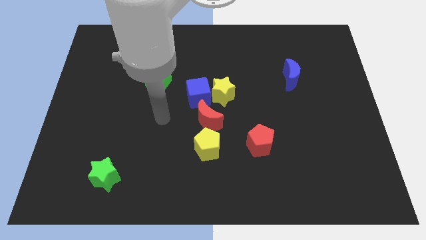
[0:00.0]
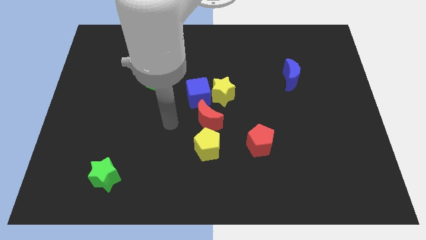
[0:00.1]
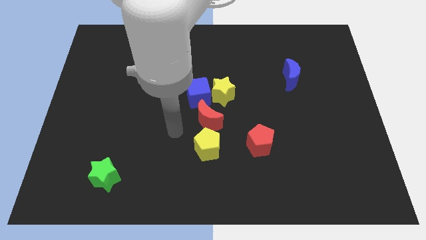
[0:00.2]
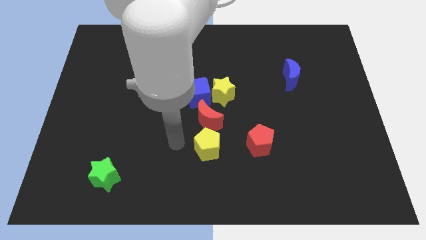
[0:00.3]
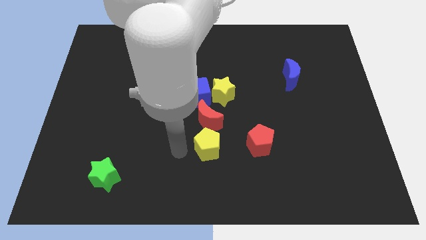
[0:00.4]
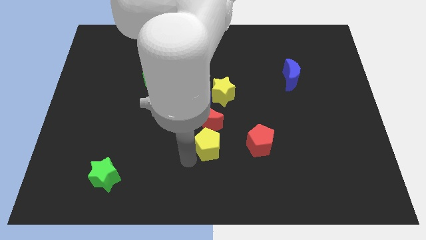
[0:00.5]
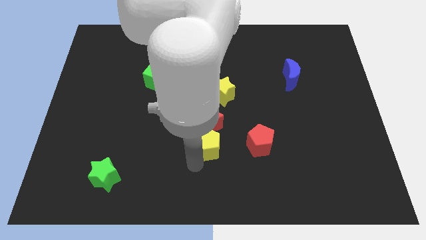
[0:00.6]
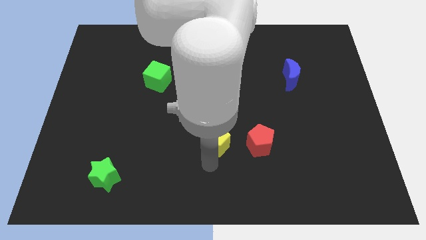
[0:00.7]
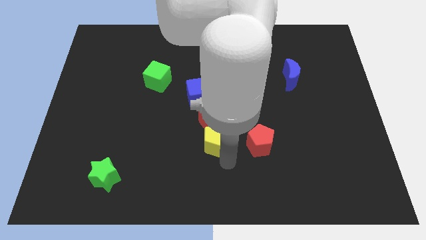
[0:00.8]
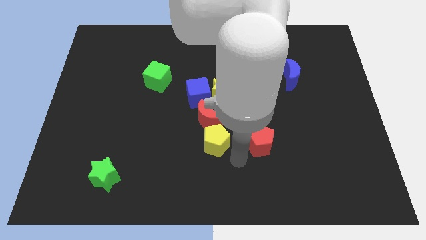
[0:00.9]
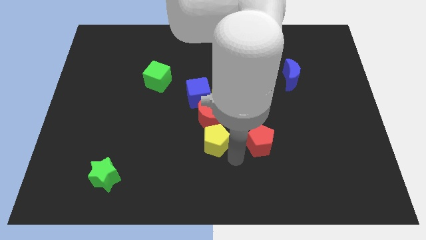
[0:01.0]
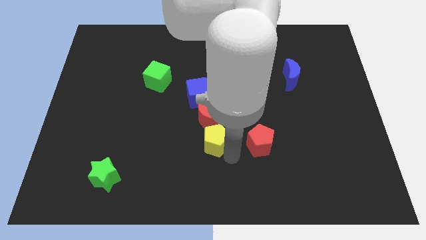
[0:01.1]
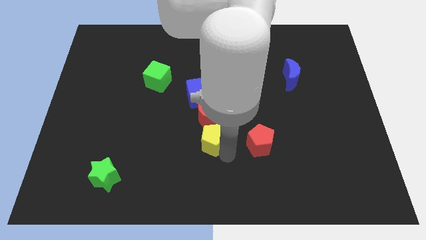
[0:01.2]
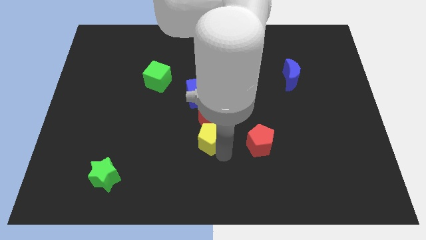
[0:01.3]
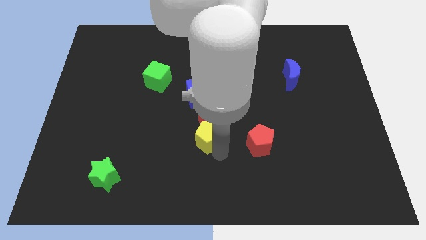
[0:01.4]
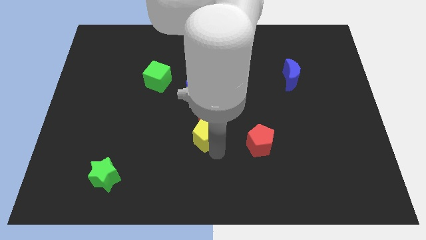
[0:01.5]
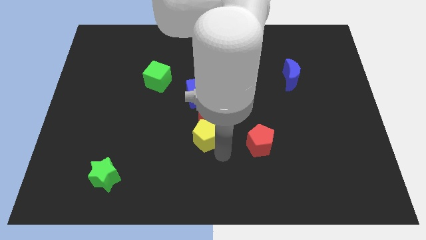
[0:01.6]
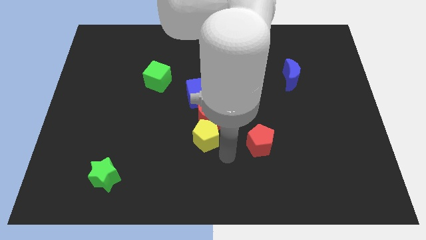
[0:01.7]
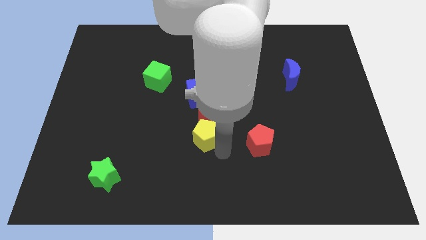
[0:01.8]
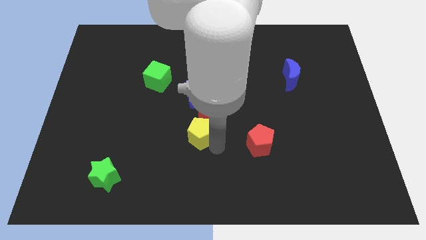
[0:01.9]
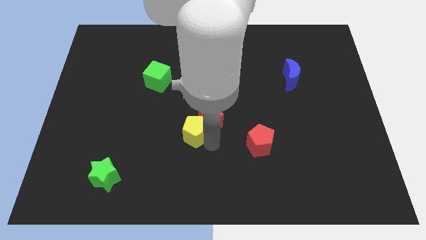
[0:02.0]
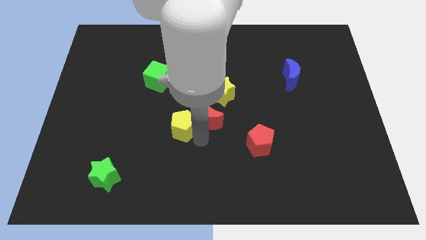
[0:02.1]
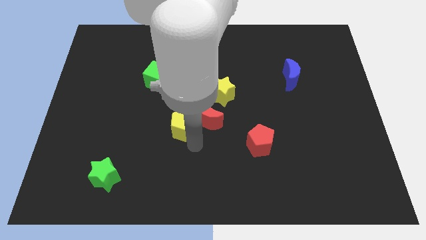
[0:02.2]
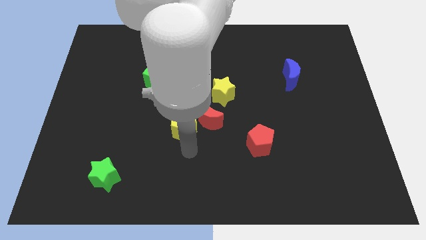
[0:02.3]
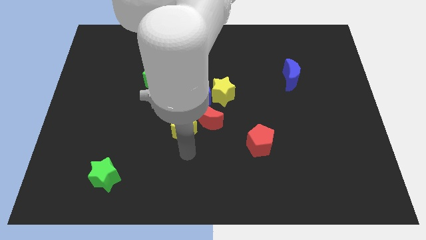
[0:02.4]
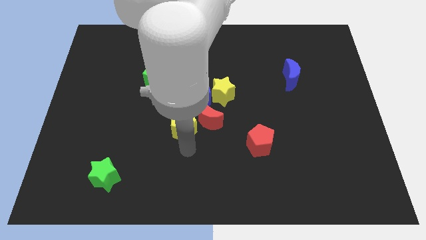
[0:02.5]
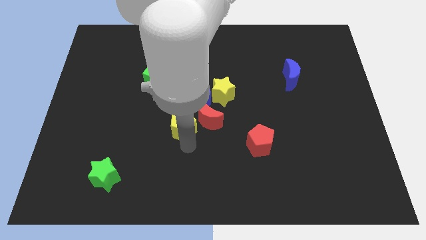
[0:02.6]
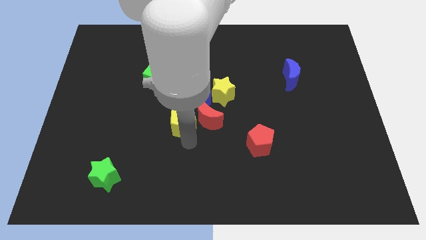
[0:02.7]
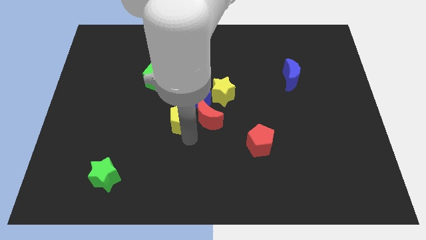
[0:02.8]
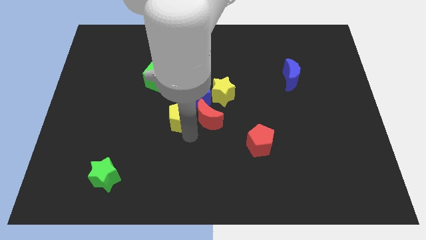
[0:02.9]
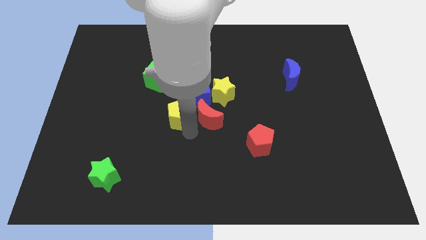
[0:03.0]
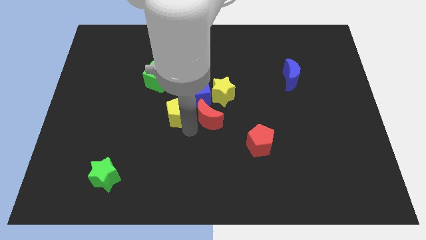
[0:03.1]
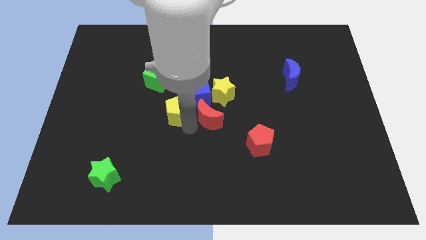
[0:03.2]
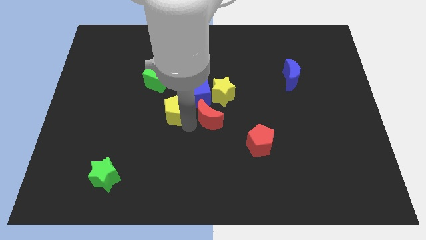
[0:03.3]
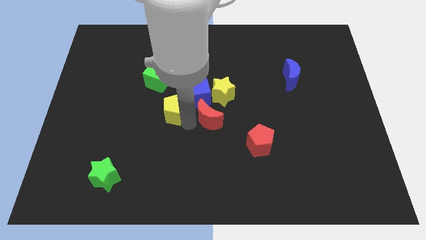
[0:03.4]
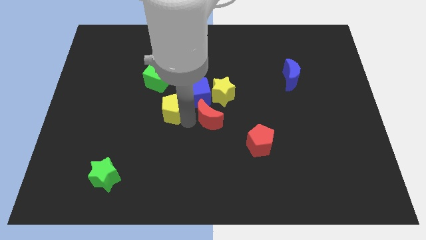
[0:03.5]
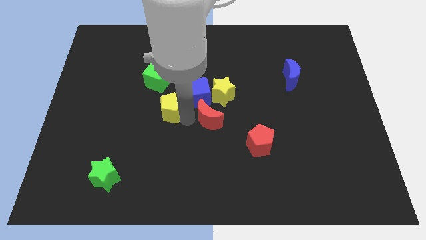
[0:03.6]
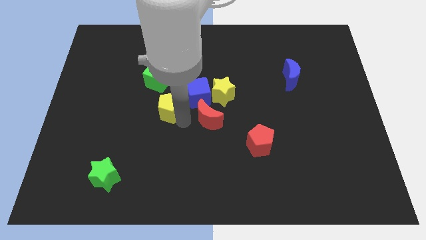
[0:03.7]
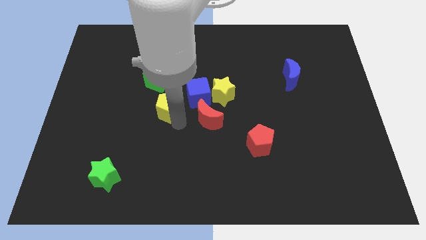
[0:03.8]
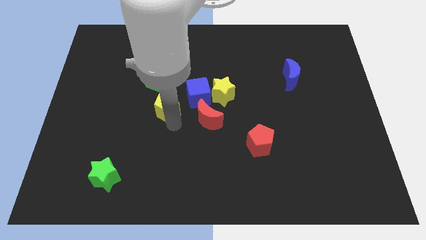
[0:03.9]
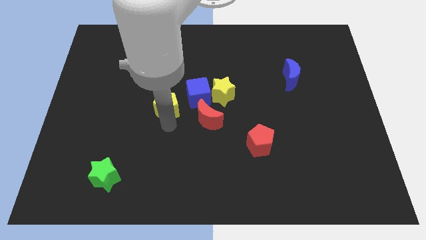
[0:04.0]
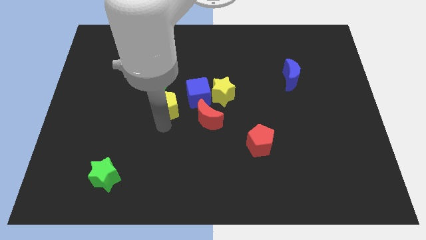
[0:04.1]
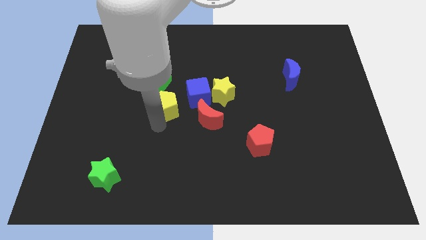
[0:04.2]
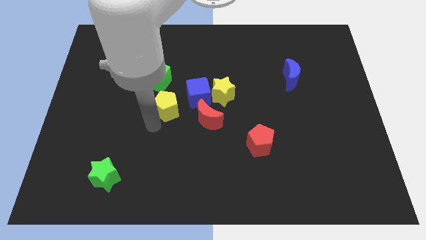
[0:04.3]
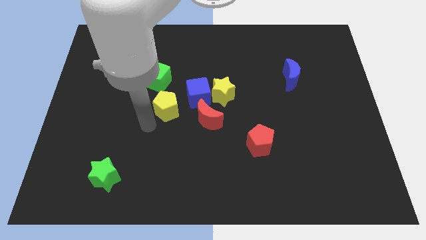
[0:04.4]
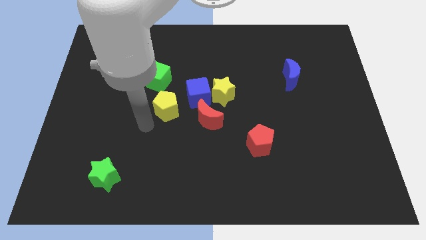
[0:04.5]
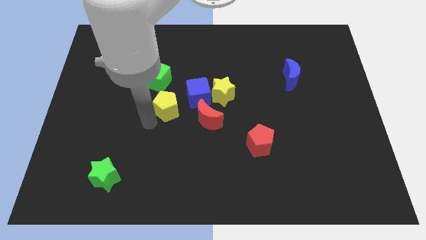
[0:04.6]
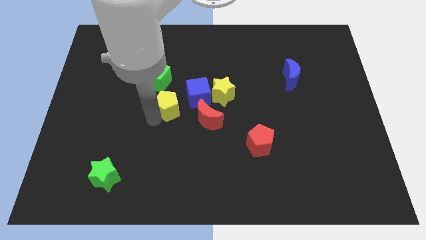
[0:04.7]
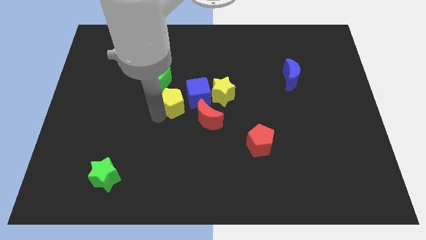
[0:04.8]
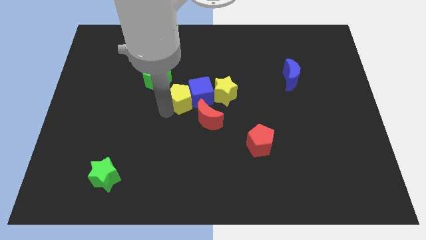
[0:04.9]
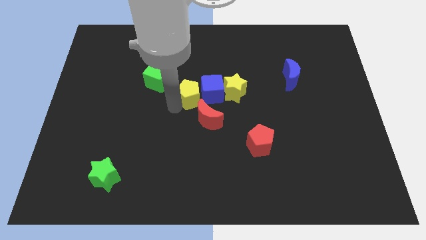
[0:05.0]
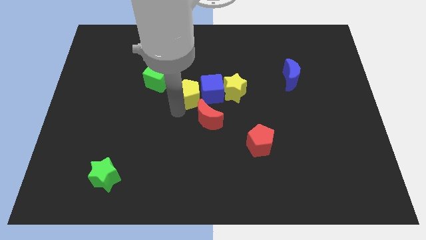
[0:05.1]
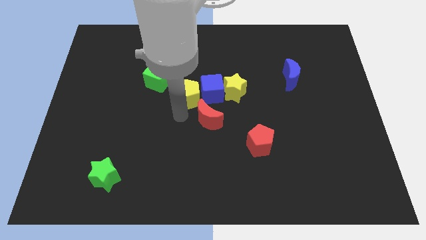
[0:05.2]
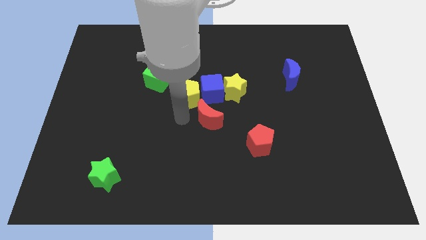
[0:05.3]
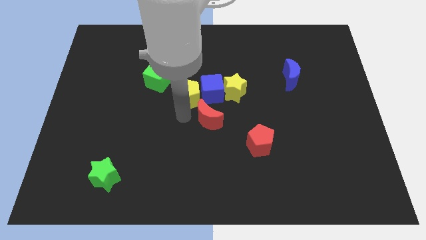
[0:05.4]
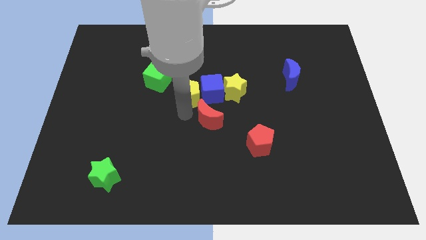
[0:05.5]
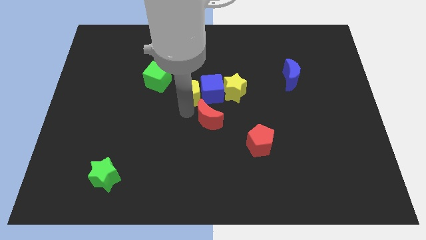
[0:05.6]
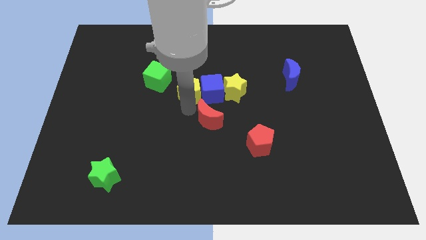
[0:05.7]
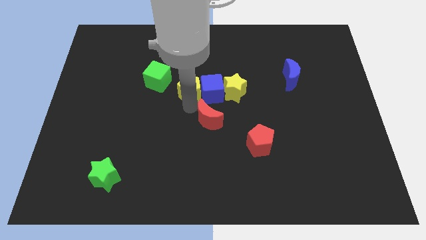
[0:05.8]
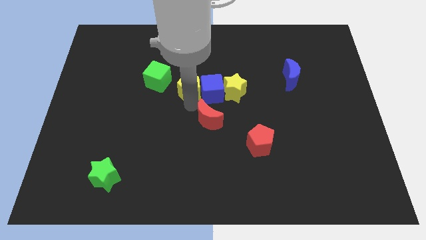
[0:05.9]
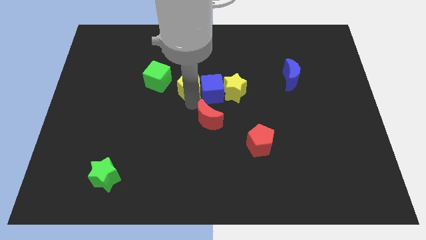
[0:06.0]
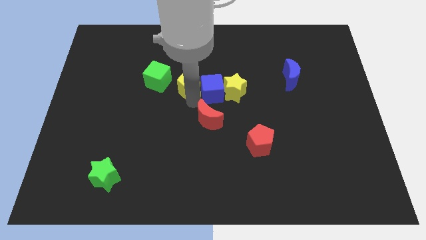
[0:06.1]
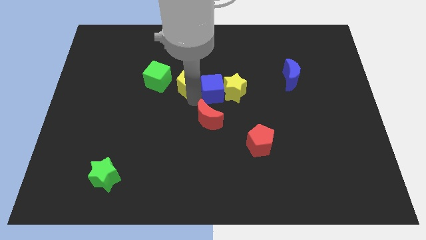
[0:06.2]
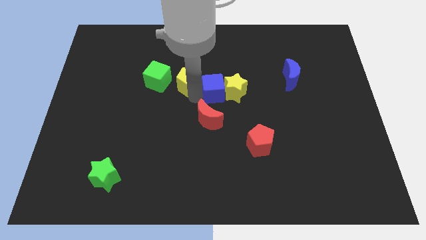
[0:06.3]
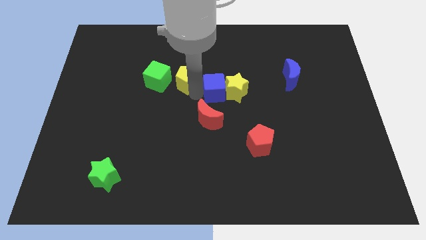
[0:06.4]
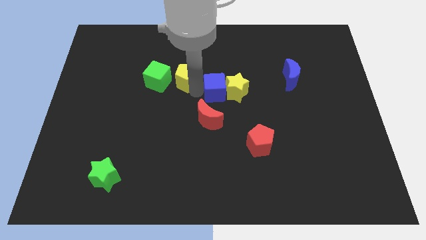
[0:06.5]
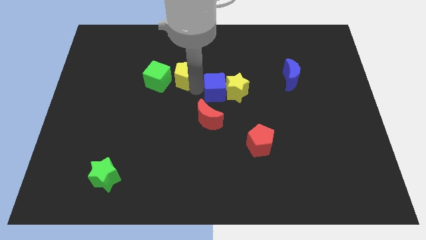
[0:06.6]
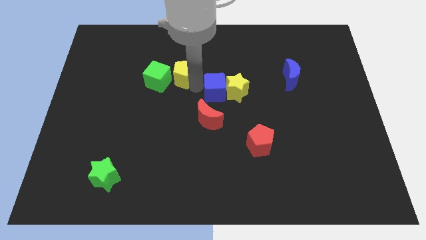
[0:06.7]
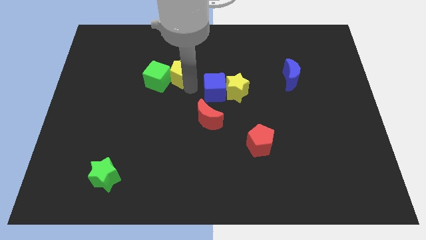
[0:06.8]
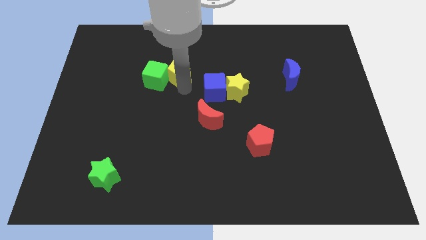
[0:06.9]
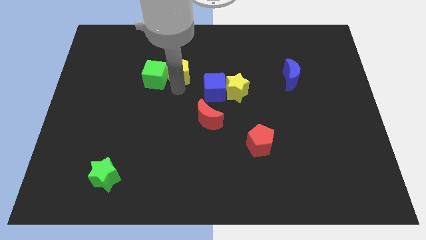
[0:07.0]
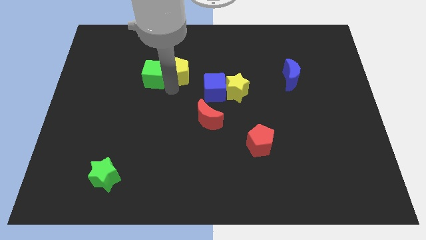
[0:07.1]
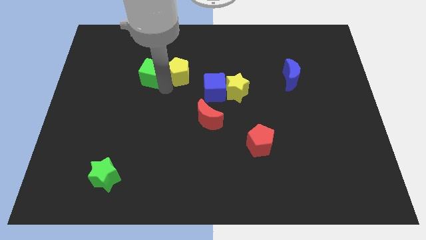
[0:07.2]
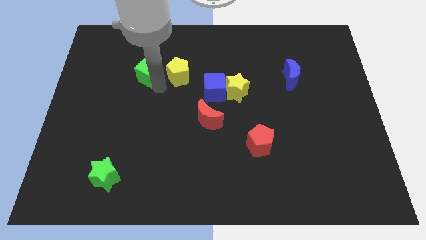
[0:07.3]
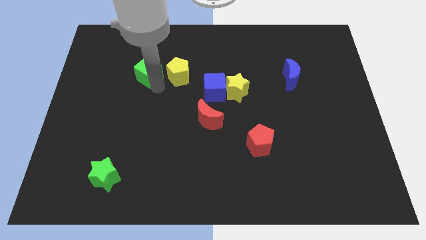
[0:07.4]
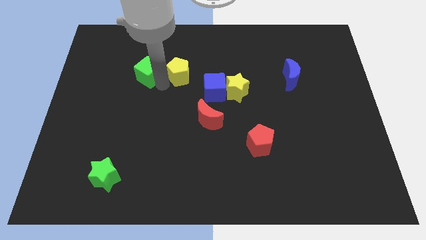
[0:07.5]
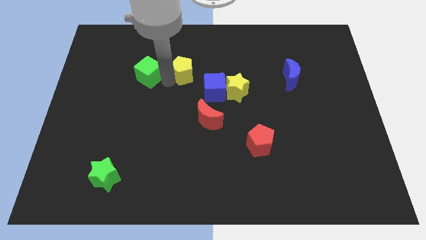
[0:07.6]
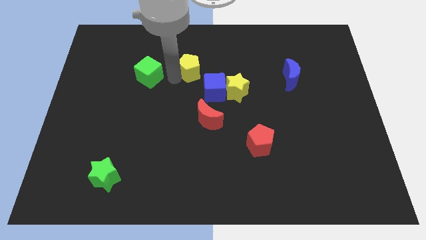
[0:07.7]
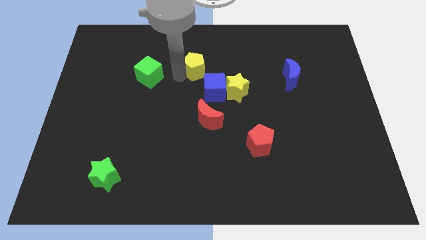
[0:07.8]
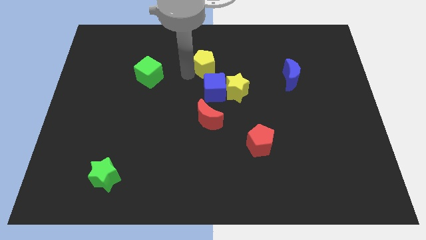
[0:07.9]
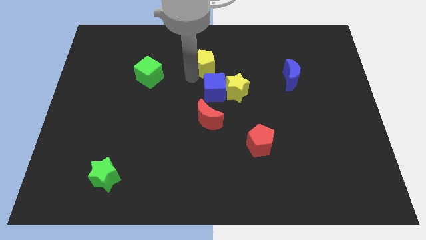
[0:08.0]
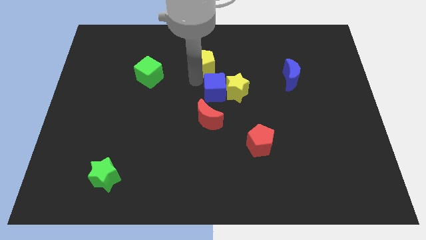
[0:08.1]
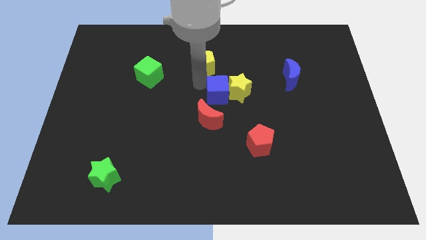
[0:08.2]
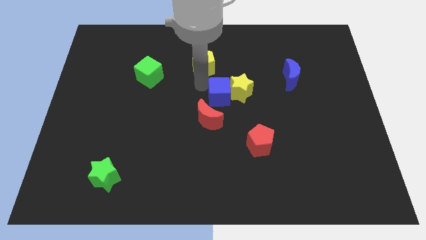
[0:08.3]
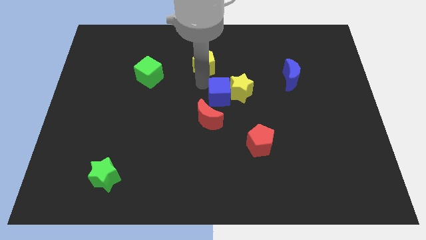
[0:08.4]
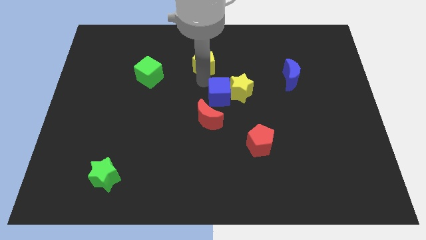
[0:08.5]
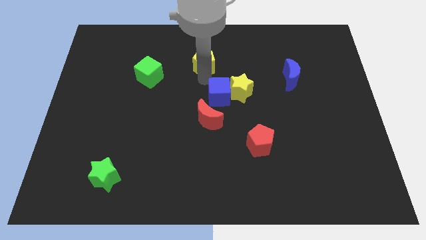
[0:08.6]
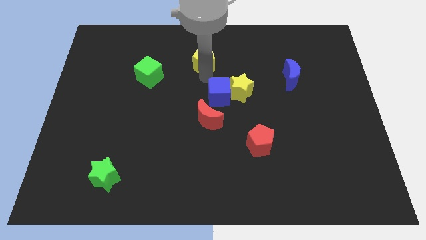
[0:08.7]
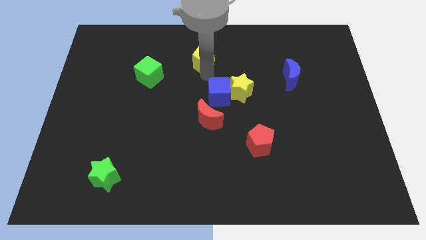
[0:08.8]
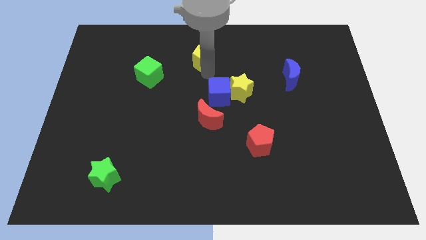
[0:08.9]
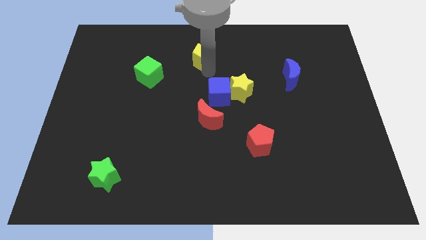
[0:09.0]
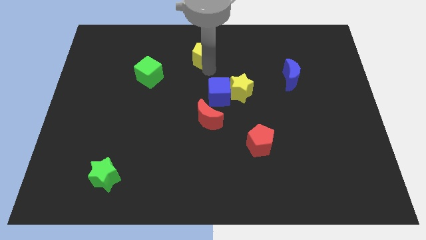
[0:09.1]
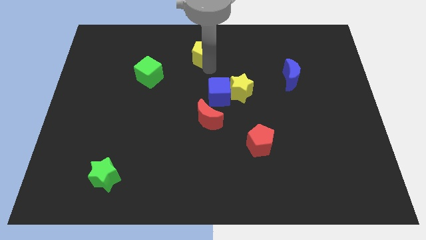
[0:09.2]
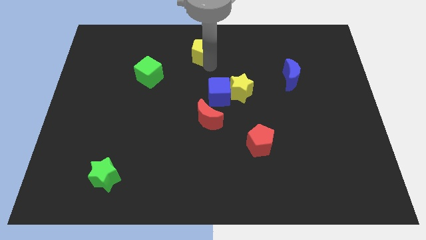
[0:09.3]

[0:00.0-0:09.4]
put the yellow pentagon to the towards your base
